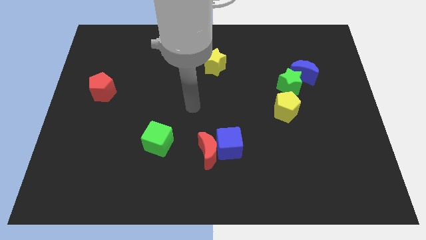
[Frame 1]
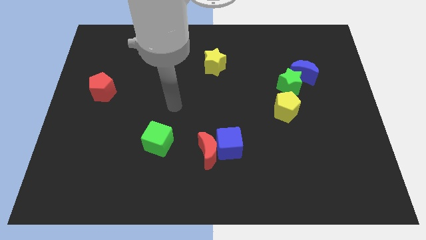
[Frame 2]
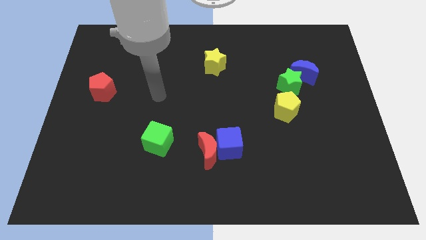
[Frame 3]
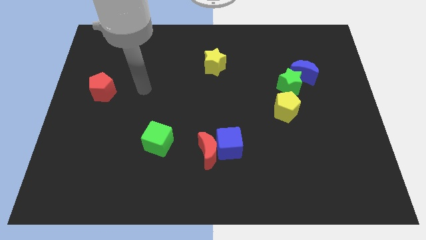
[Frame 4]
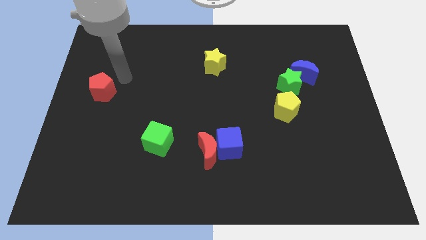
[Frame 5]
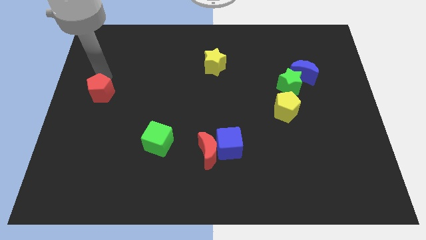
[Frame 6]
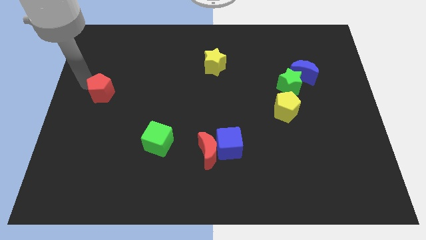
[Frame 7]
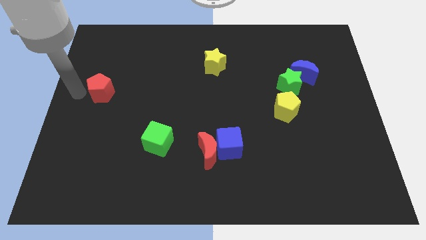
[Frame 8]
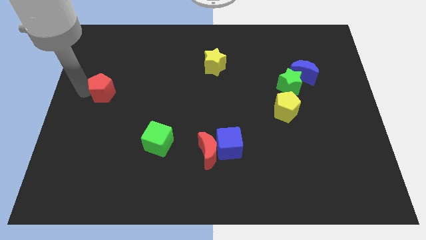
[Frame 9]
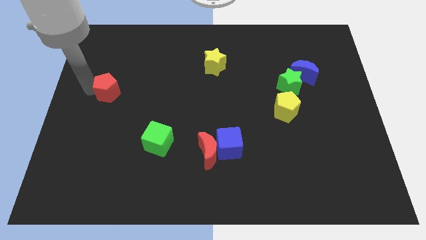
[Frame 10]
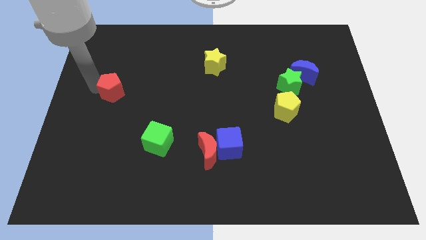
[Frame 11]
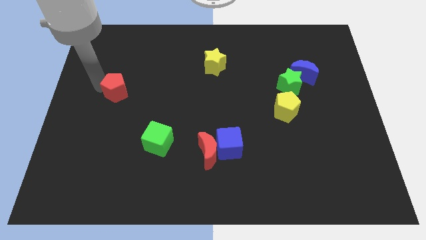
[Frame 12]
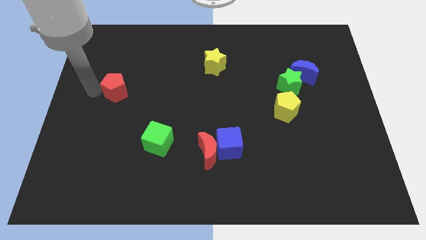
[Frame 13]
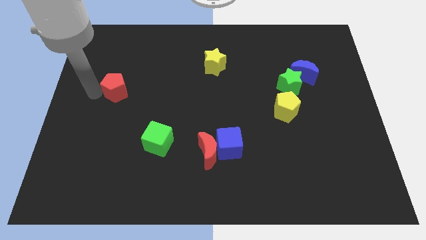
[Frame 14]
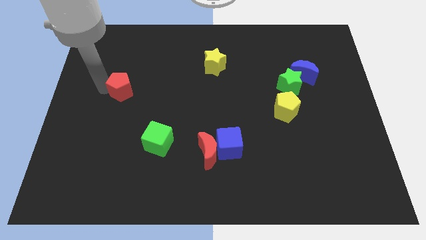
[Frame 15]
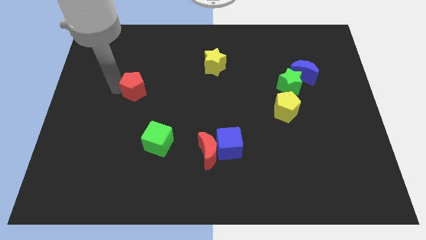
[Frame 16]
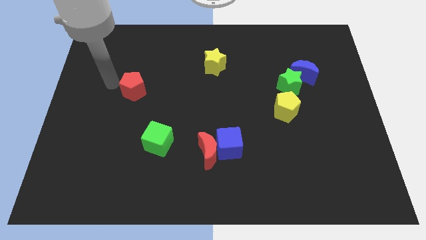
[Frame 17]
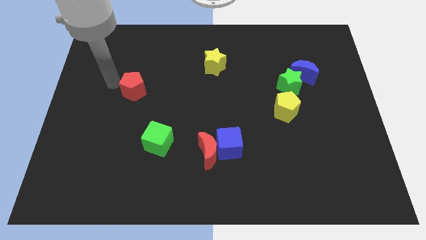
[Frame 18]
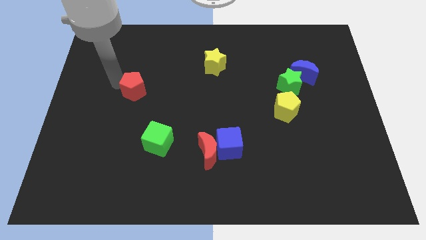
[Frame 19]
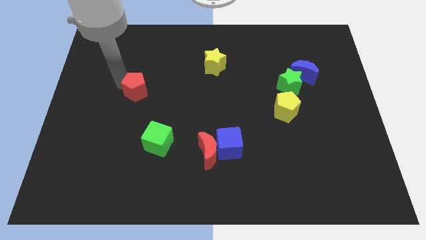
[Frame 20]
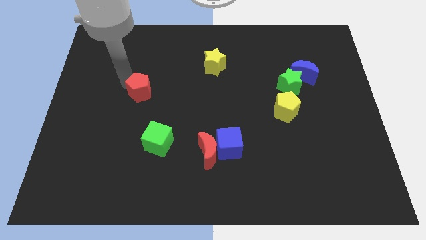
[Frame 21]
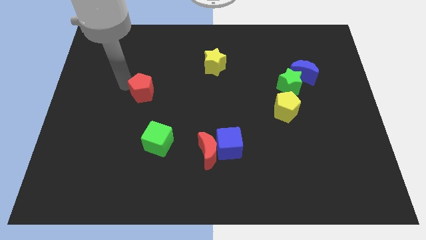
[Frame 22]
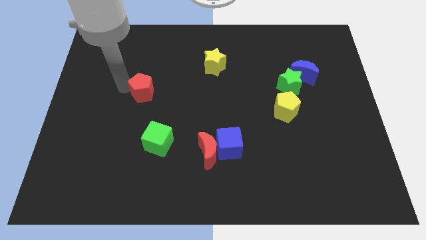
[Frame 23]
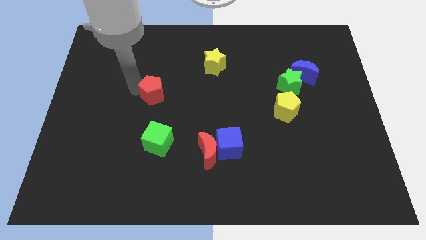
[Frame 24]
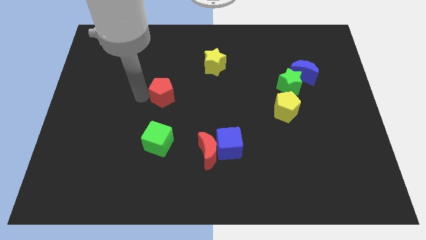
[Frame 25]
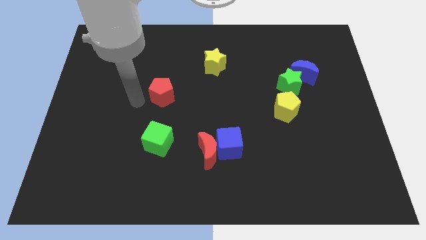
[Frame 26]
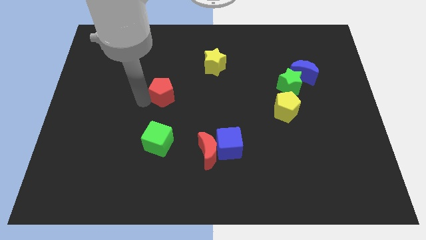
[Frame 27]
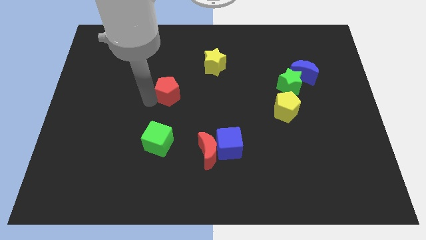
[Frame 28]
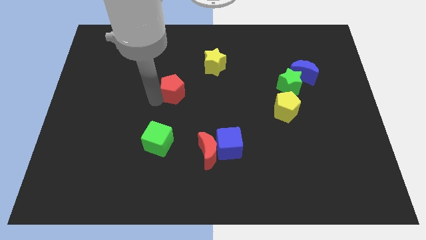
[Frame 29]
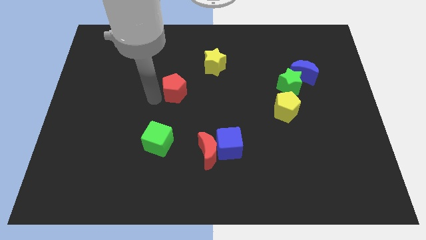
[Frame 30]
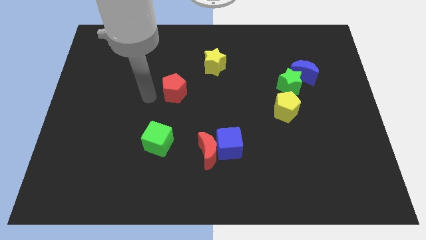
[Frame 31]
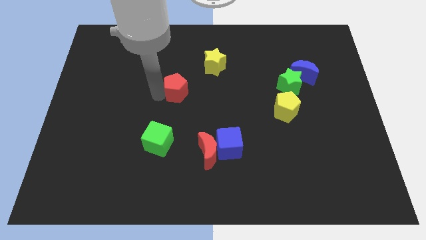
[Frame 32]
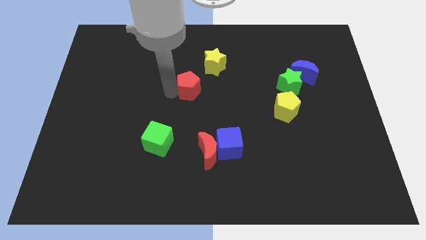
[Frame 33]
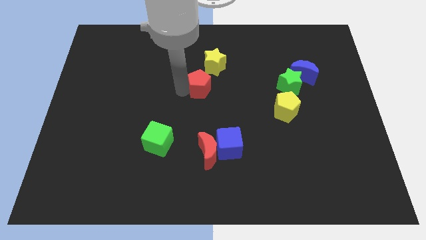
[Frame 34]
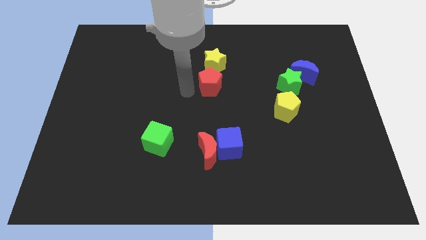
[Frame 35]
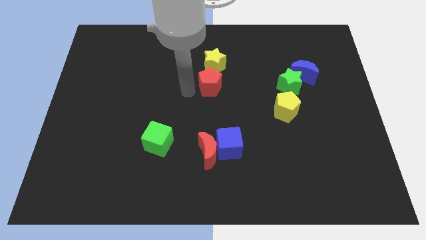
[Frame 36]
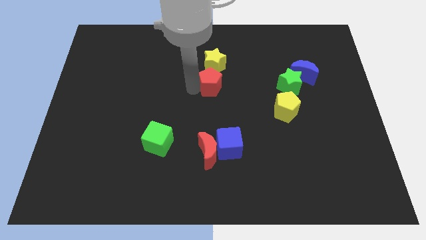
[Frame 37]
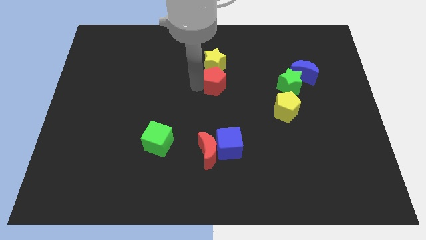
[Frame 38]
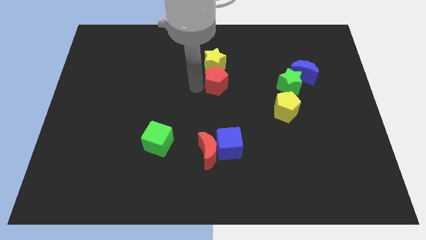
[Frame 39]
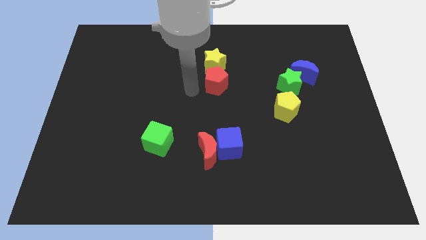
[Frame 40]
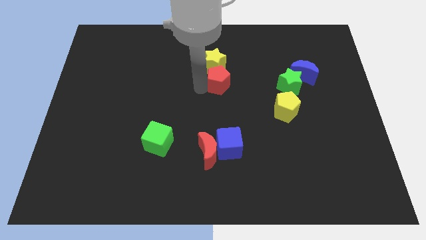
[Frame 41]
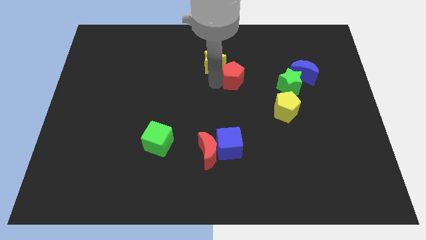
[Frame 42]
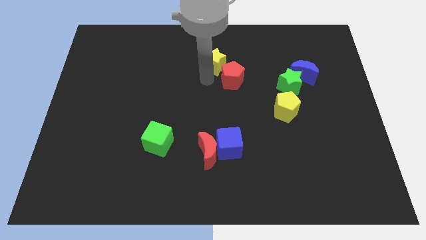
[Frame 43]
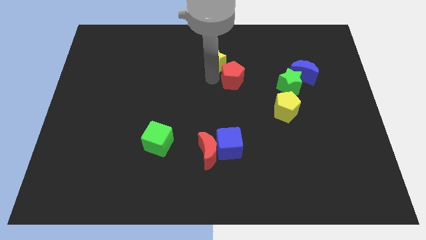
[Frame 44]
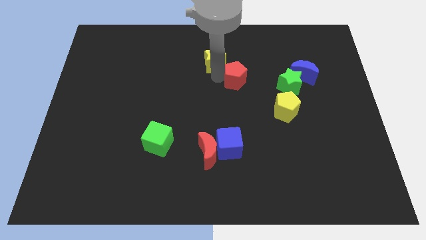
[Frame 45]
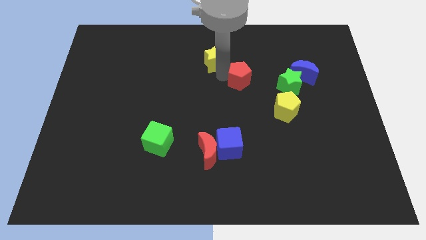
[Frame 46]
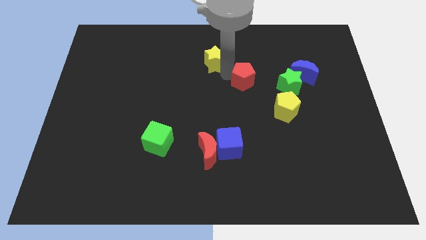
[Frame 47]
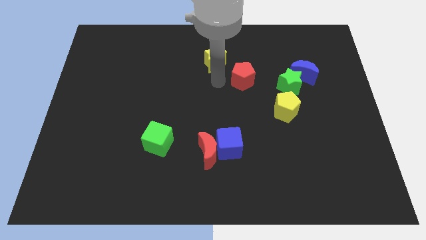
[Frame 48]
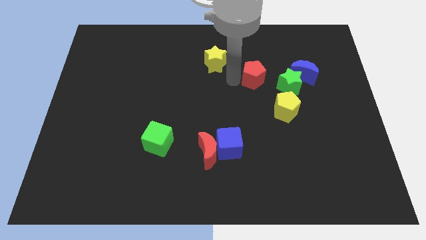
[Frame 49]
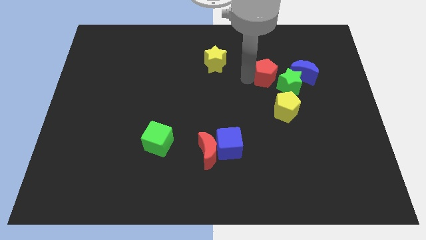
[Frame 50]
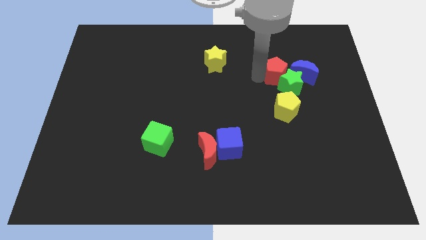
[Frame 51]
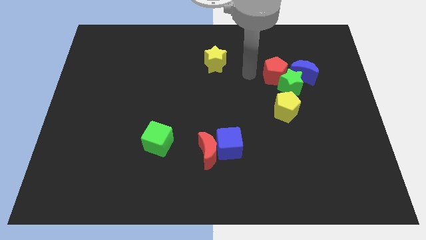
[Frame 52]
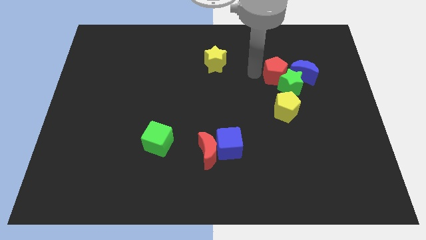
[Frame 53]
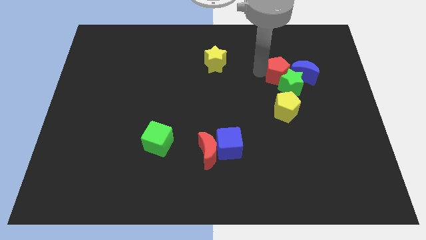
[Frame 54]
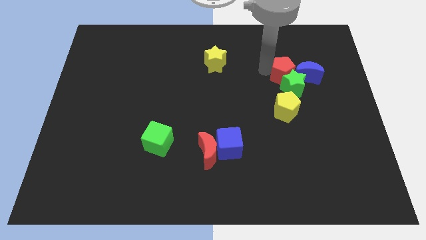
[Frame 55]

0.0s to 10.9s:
move the red pentagon towards the blue moon

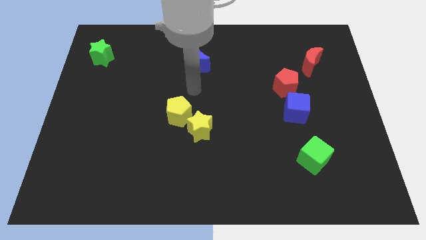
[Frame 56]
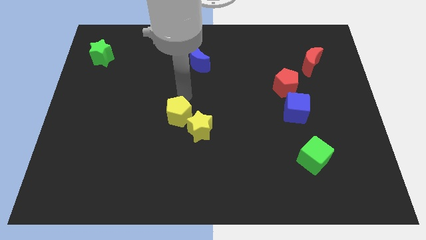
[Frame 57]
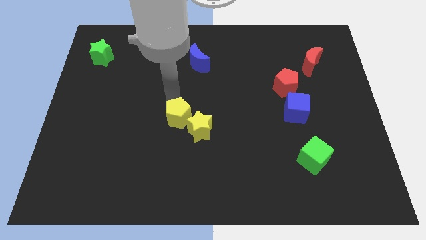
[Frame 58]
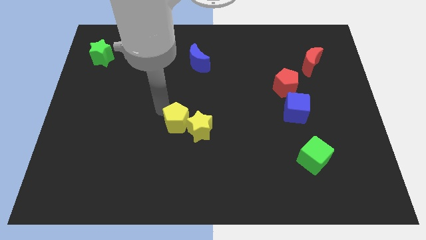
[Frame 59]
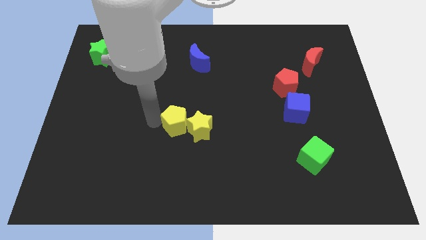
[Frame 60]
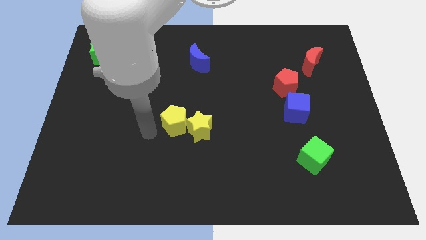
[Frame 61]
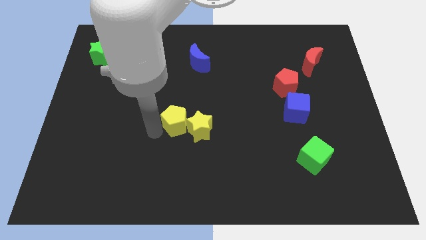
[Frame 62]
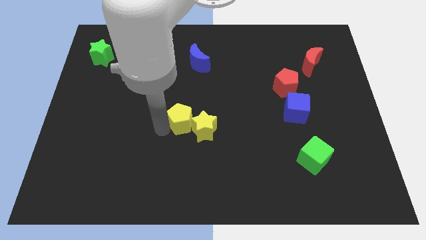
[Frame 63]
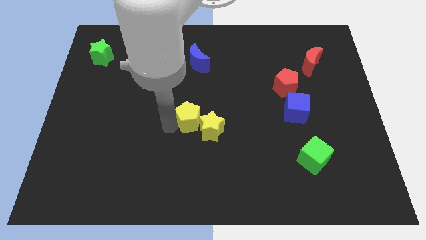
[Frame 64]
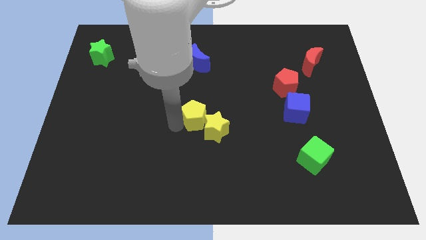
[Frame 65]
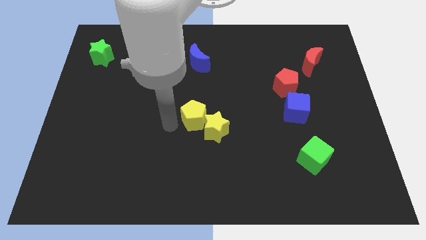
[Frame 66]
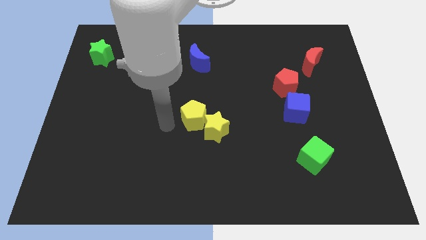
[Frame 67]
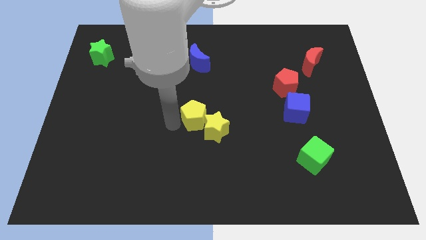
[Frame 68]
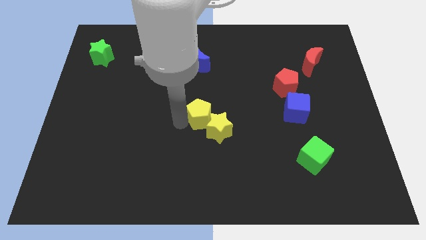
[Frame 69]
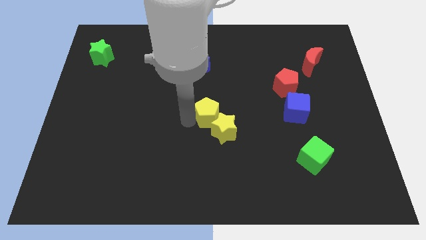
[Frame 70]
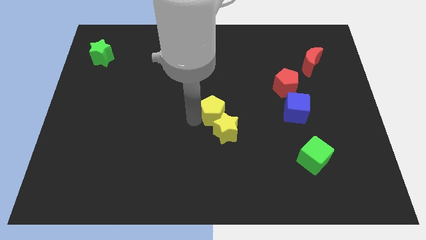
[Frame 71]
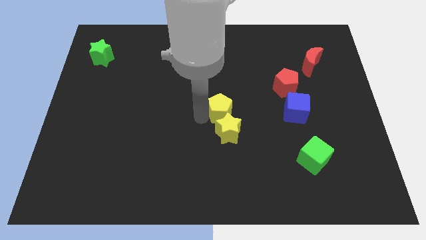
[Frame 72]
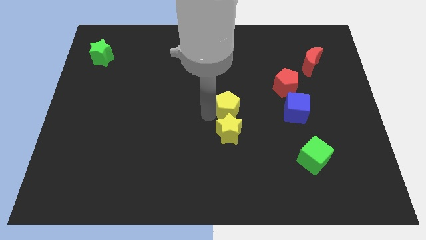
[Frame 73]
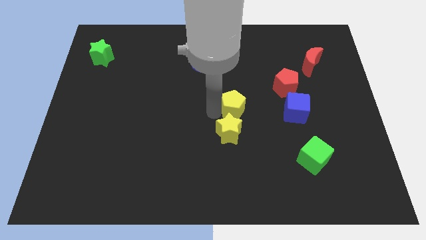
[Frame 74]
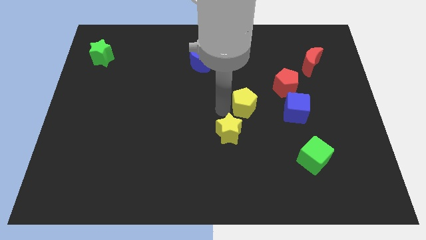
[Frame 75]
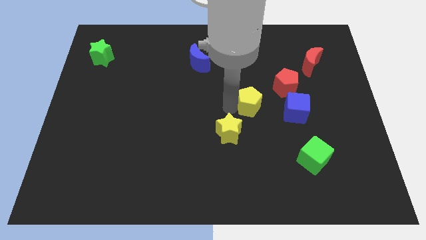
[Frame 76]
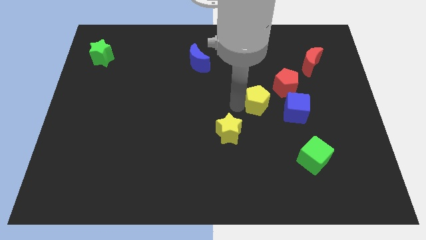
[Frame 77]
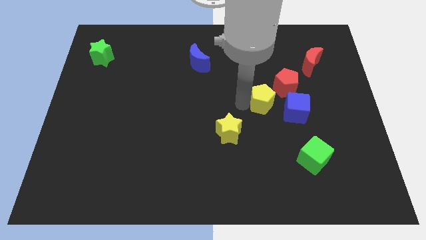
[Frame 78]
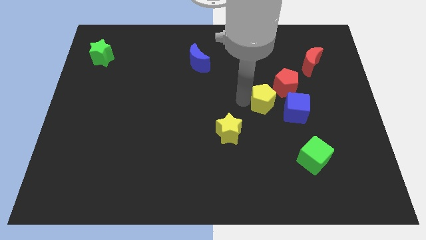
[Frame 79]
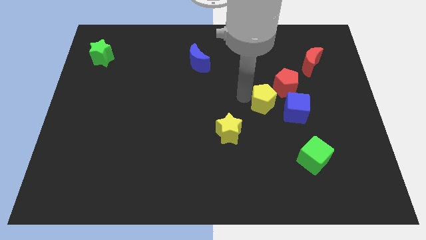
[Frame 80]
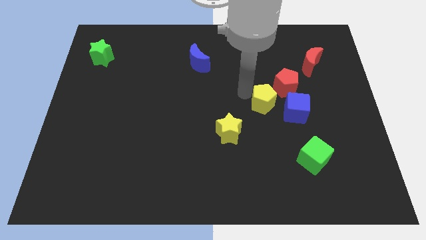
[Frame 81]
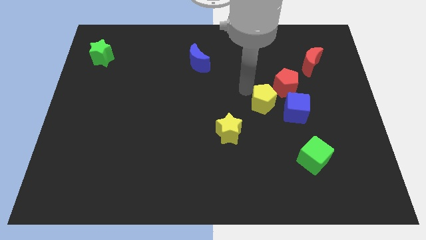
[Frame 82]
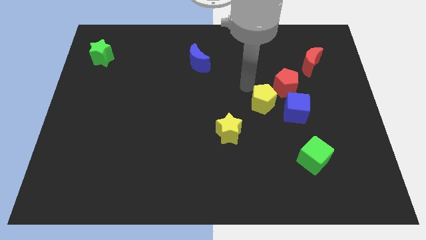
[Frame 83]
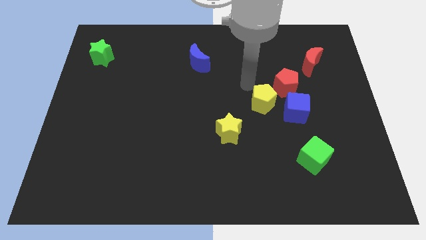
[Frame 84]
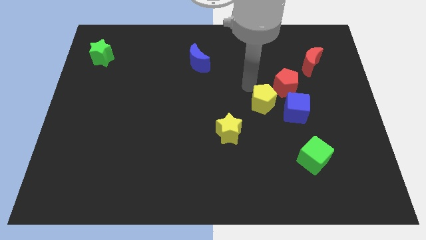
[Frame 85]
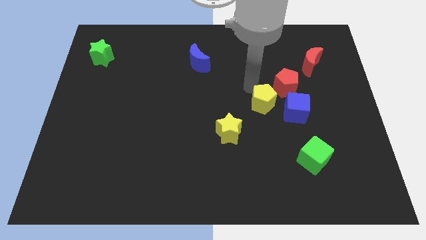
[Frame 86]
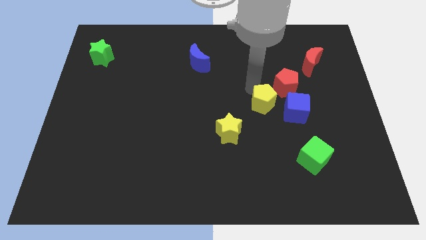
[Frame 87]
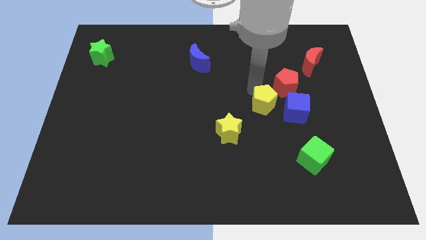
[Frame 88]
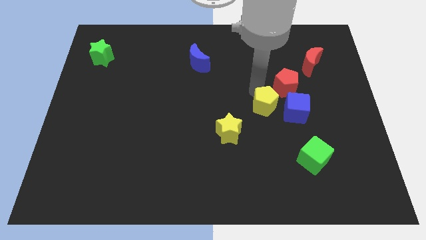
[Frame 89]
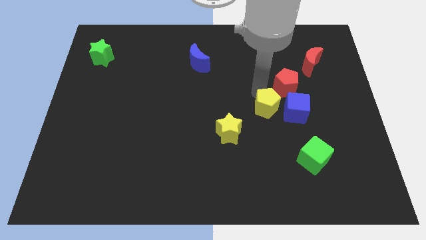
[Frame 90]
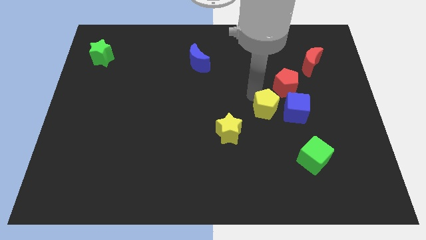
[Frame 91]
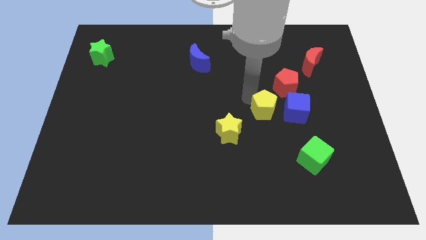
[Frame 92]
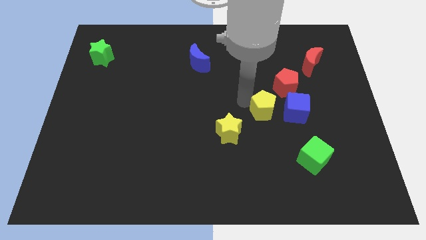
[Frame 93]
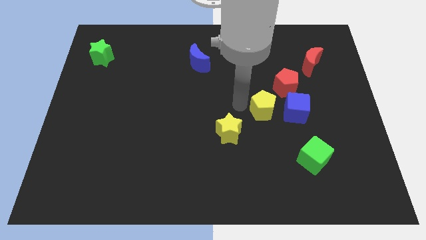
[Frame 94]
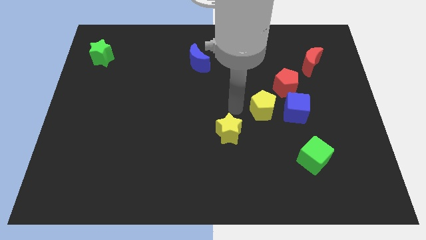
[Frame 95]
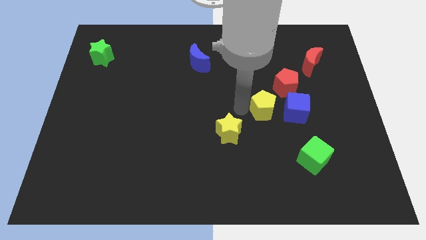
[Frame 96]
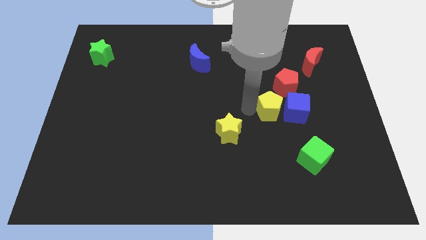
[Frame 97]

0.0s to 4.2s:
slide the yellow pentagon close to the blue cube
